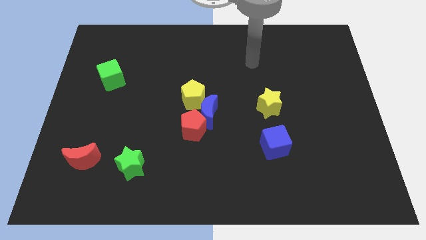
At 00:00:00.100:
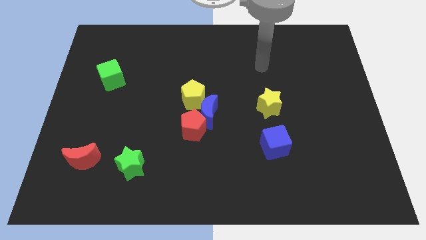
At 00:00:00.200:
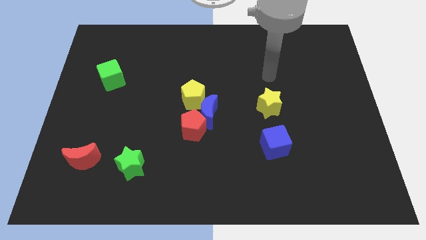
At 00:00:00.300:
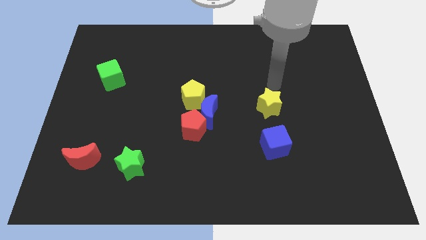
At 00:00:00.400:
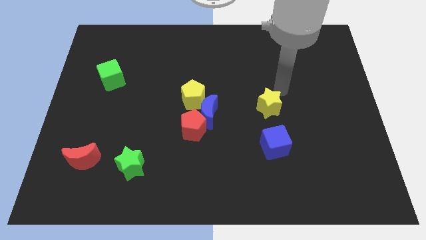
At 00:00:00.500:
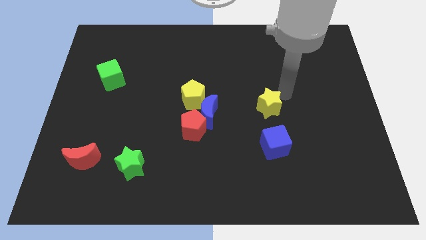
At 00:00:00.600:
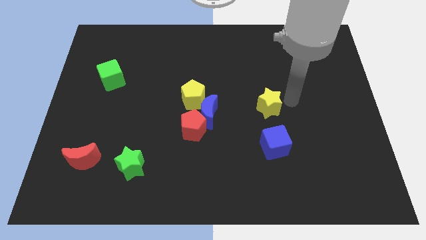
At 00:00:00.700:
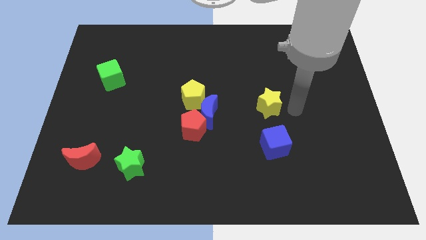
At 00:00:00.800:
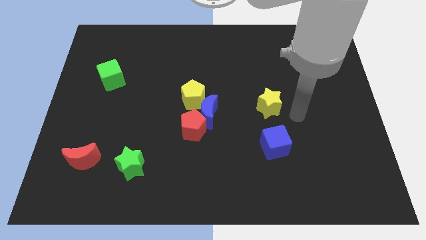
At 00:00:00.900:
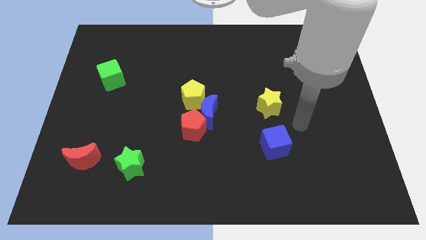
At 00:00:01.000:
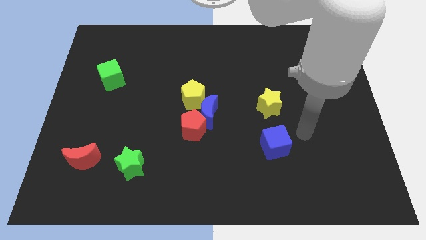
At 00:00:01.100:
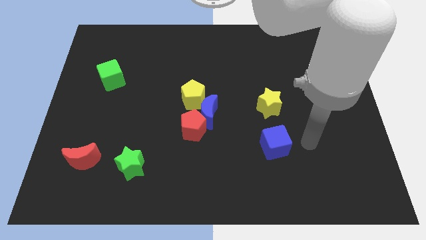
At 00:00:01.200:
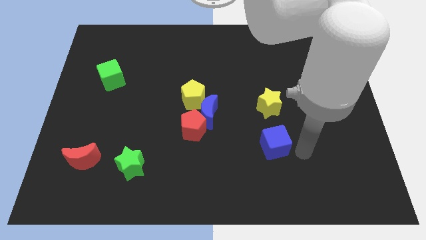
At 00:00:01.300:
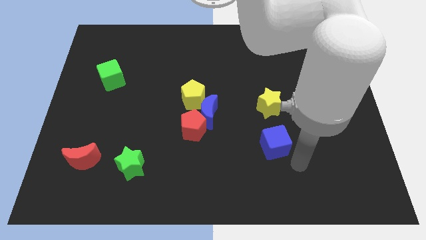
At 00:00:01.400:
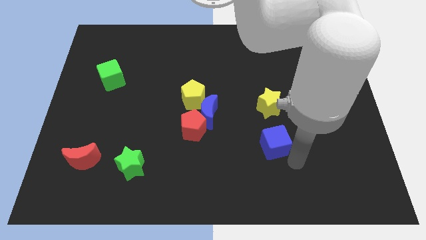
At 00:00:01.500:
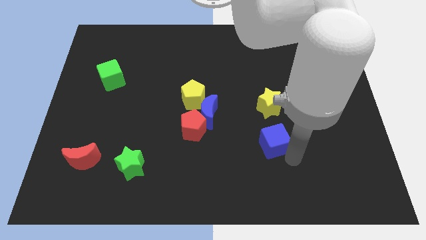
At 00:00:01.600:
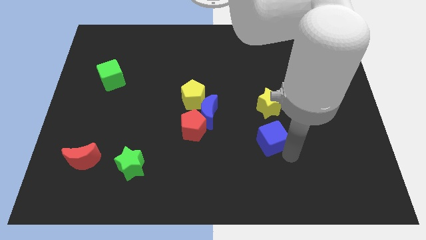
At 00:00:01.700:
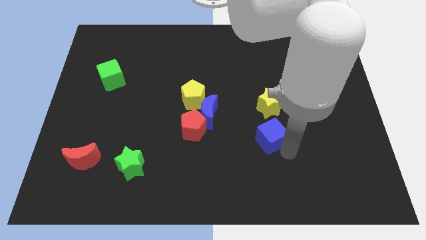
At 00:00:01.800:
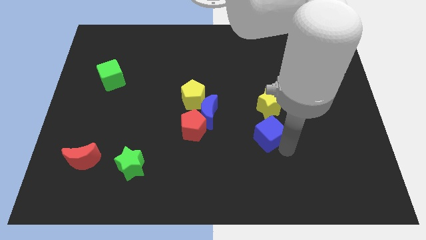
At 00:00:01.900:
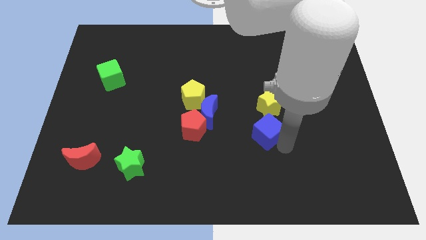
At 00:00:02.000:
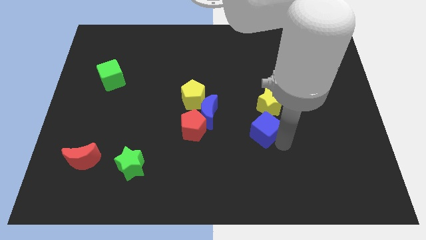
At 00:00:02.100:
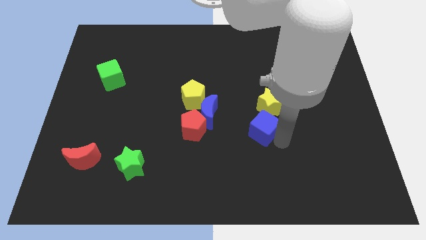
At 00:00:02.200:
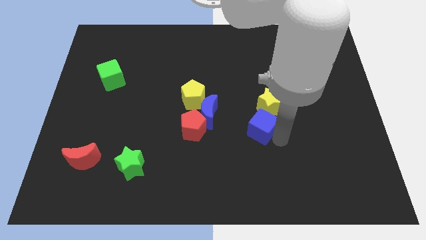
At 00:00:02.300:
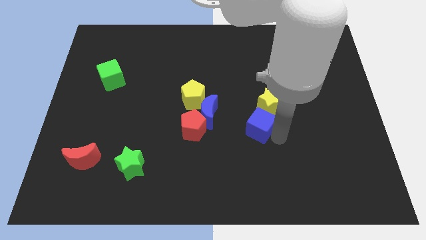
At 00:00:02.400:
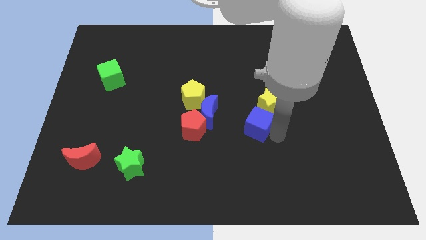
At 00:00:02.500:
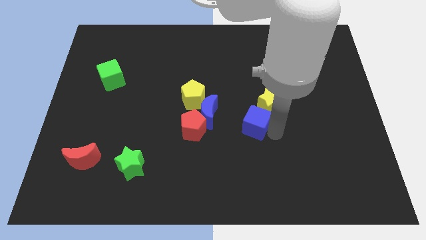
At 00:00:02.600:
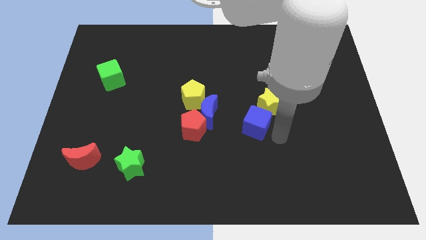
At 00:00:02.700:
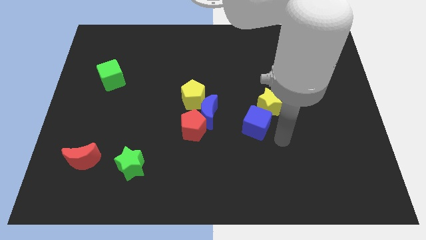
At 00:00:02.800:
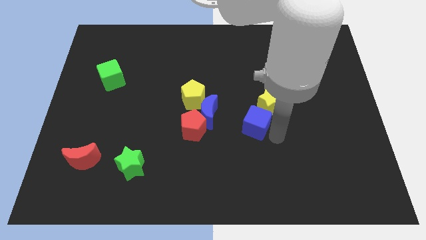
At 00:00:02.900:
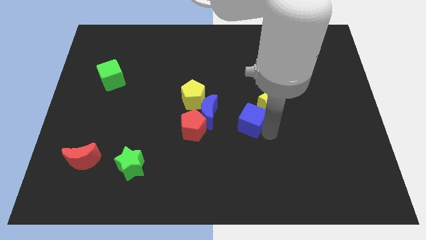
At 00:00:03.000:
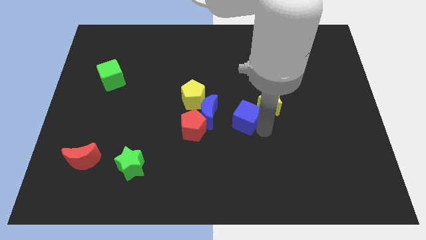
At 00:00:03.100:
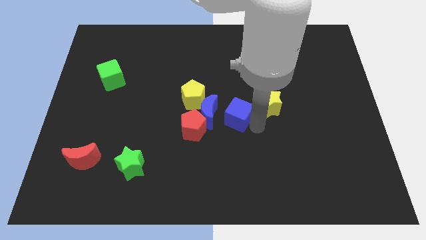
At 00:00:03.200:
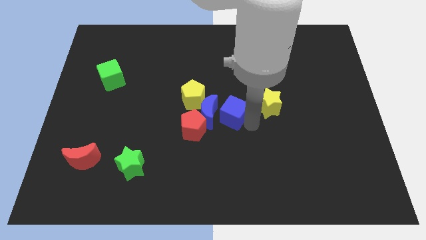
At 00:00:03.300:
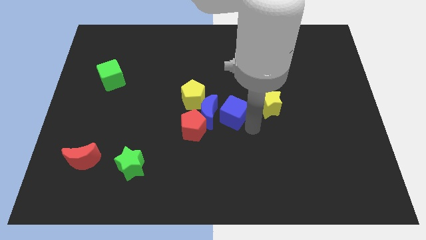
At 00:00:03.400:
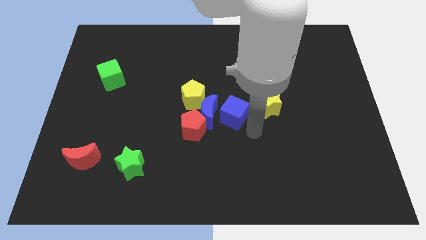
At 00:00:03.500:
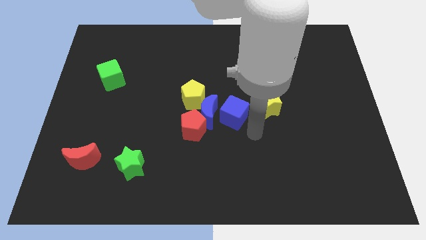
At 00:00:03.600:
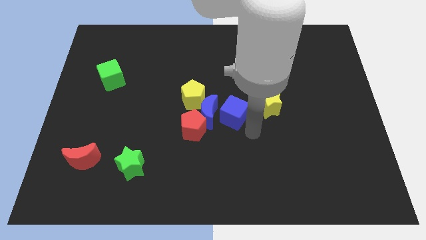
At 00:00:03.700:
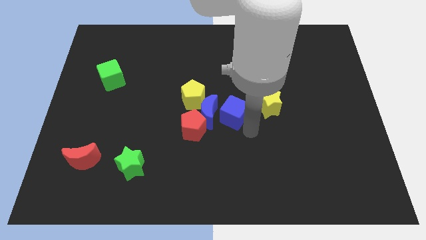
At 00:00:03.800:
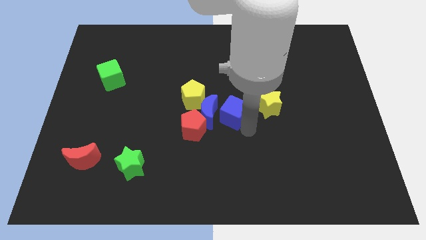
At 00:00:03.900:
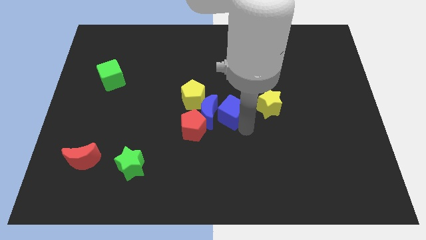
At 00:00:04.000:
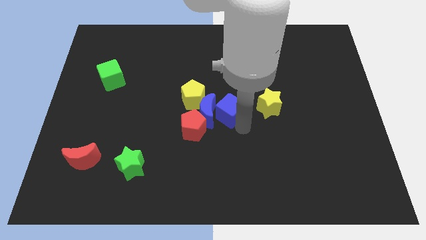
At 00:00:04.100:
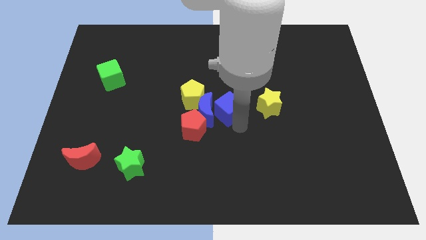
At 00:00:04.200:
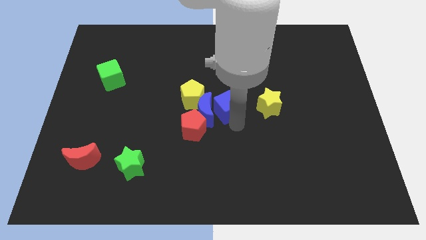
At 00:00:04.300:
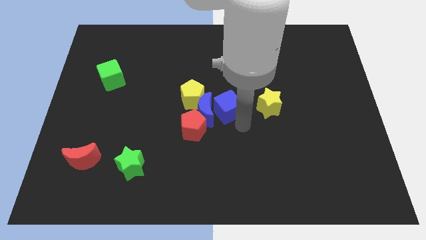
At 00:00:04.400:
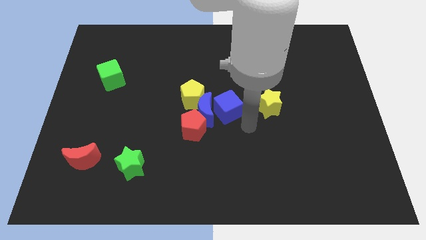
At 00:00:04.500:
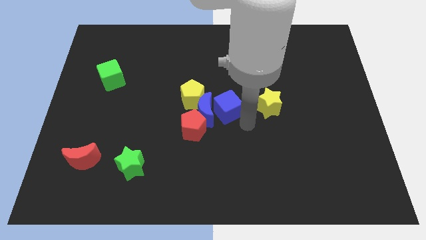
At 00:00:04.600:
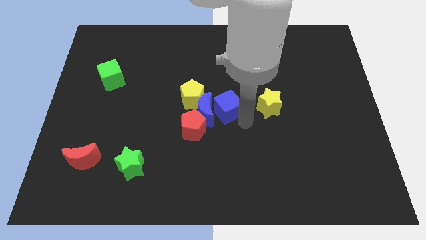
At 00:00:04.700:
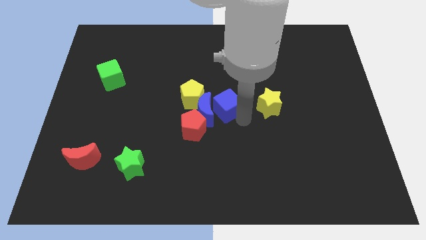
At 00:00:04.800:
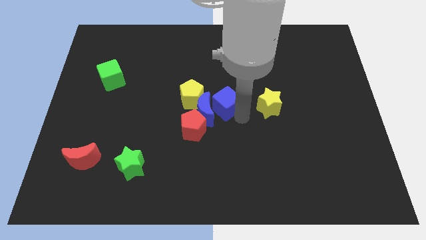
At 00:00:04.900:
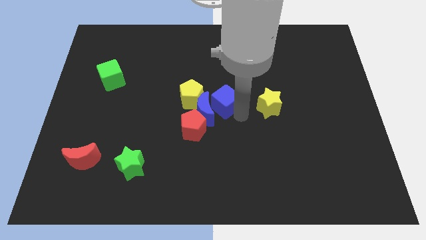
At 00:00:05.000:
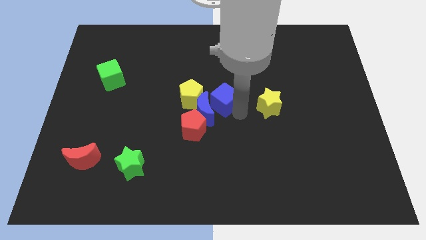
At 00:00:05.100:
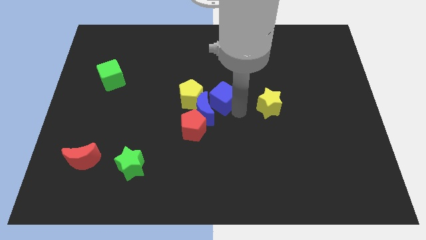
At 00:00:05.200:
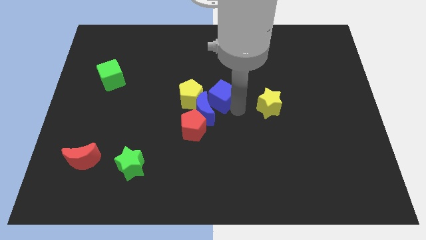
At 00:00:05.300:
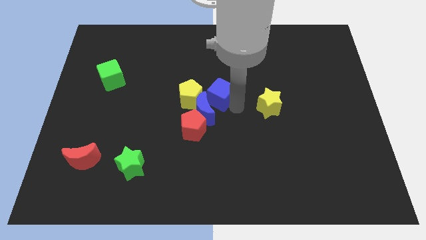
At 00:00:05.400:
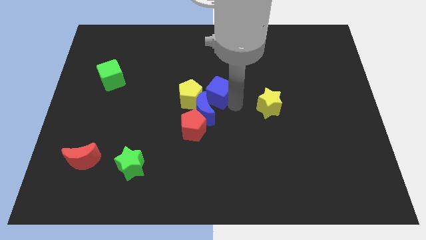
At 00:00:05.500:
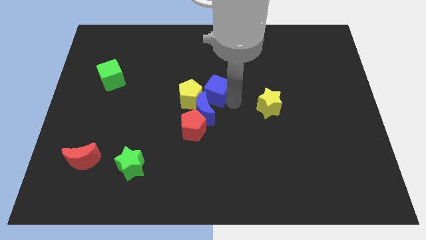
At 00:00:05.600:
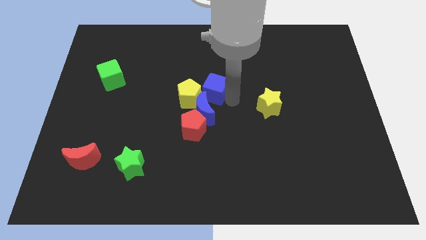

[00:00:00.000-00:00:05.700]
push the blue cube to the yellow pentagon

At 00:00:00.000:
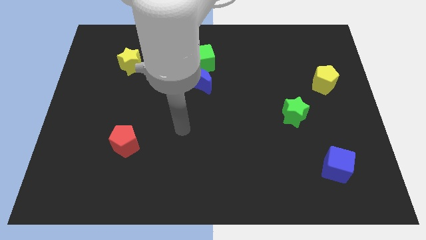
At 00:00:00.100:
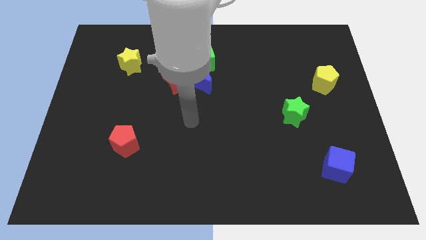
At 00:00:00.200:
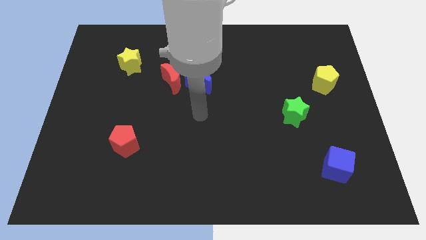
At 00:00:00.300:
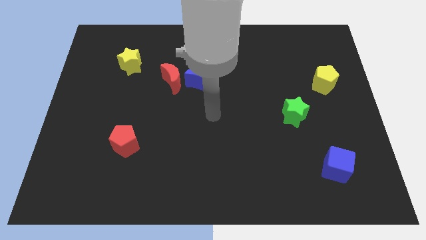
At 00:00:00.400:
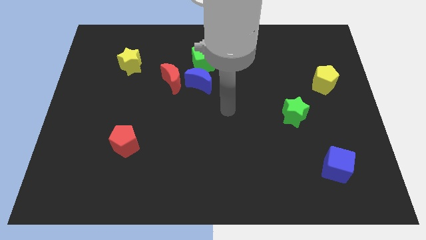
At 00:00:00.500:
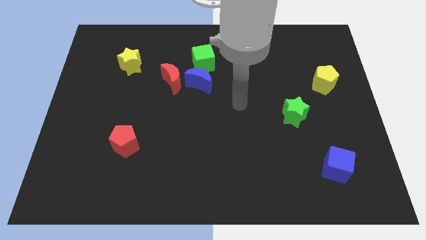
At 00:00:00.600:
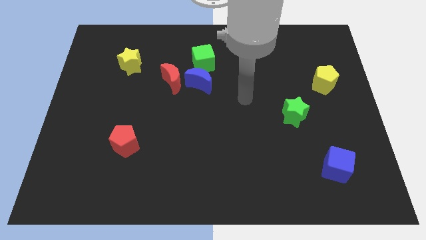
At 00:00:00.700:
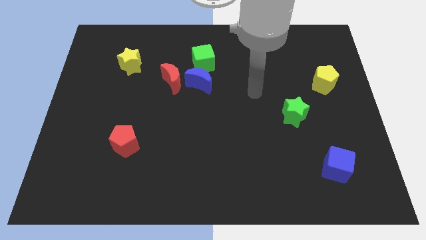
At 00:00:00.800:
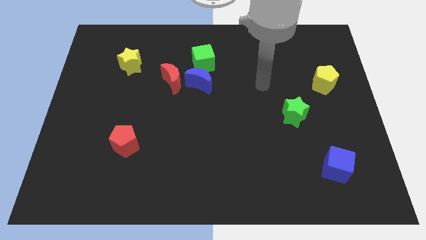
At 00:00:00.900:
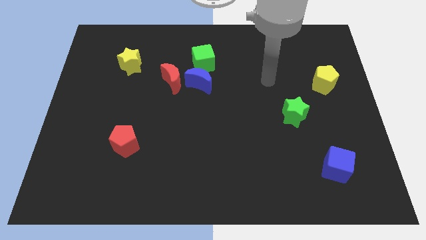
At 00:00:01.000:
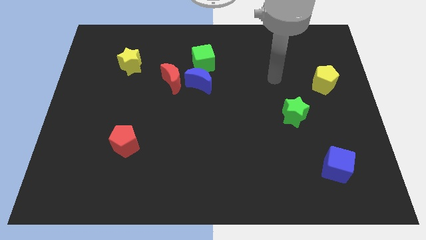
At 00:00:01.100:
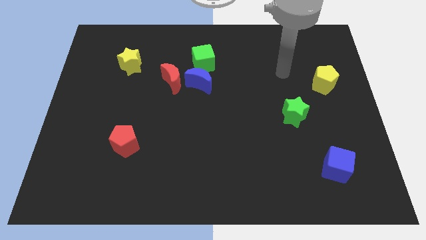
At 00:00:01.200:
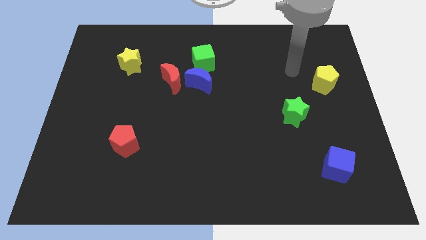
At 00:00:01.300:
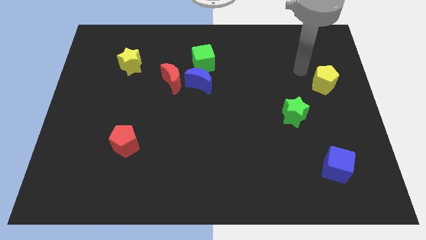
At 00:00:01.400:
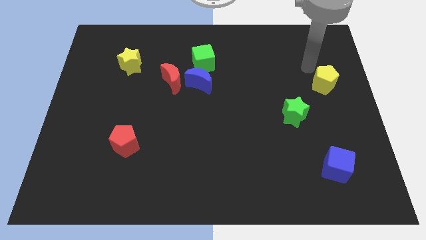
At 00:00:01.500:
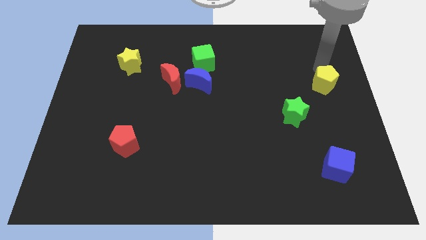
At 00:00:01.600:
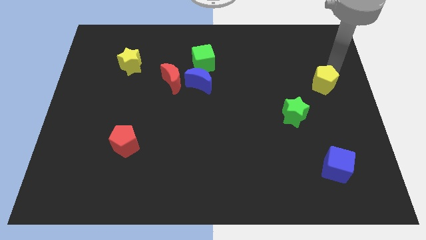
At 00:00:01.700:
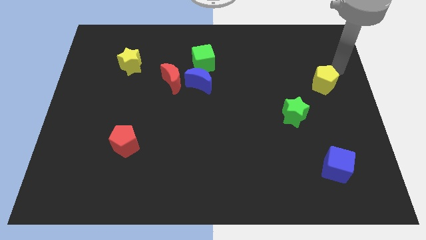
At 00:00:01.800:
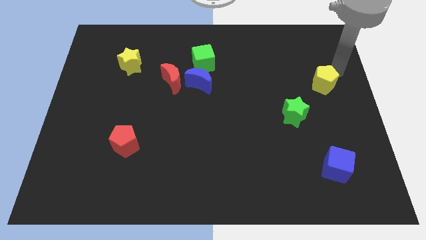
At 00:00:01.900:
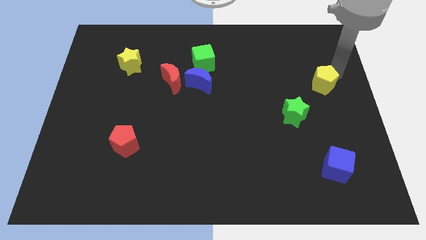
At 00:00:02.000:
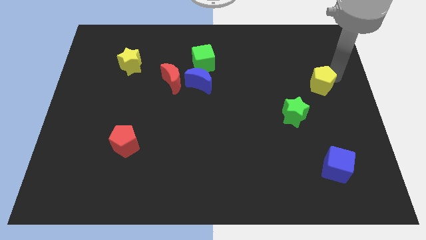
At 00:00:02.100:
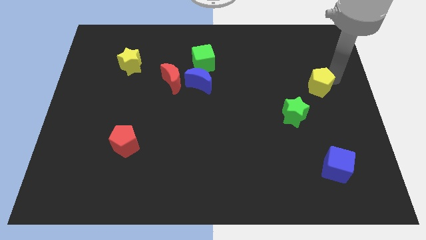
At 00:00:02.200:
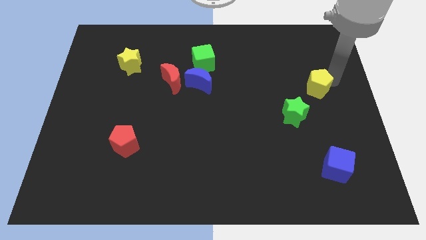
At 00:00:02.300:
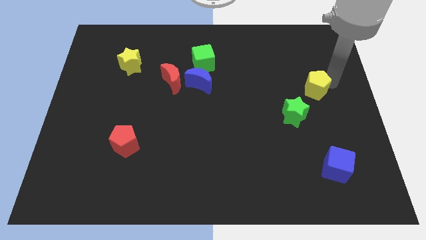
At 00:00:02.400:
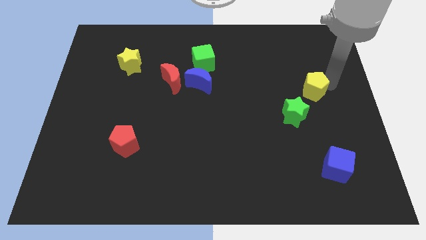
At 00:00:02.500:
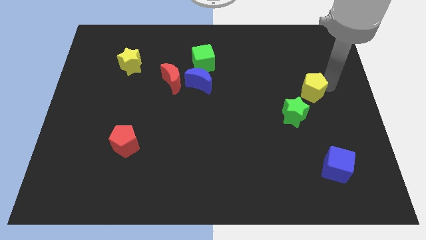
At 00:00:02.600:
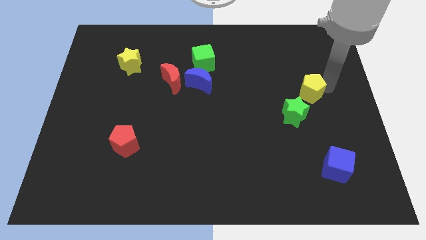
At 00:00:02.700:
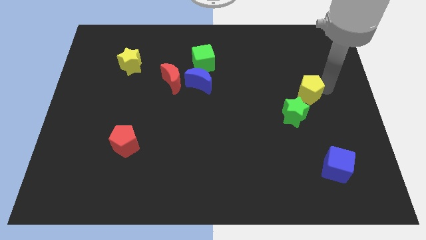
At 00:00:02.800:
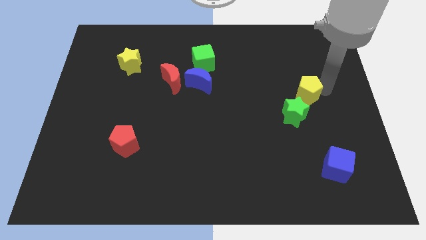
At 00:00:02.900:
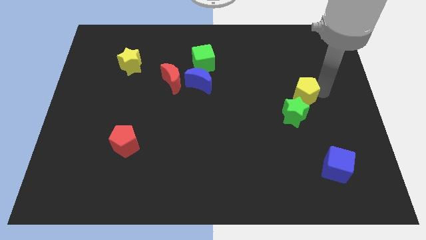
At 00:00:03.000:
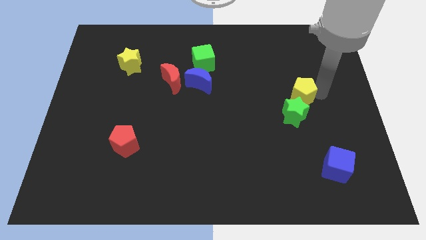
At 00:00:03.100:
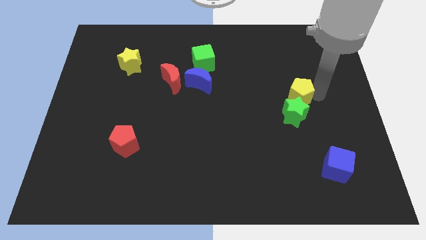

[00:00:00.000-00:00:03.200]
push the yellow pentagon to the green star
